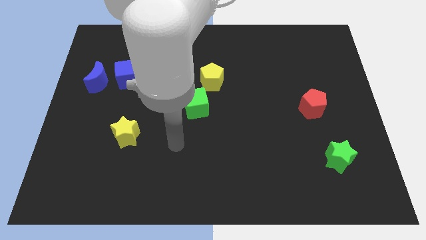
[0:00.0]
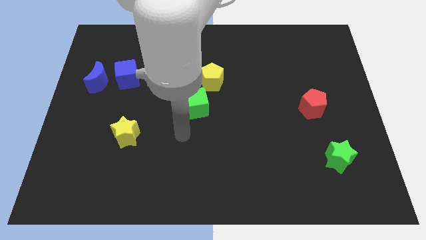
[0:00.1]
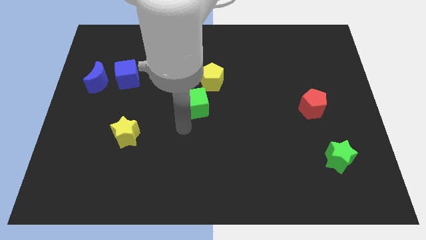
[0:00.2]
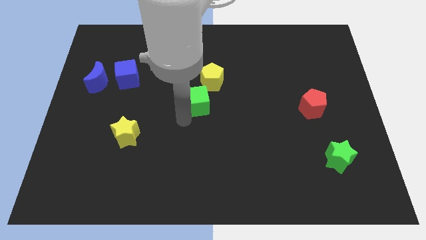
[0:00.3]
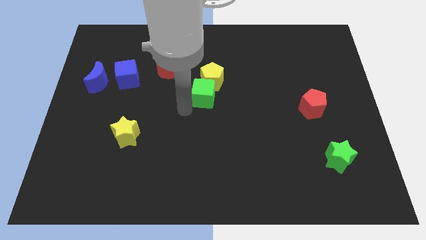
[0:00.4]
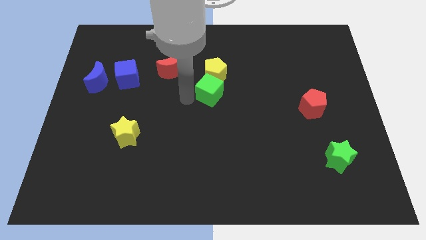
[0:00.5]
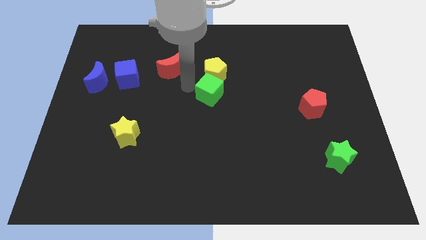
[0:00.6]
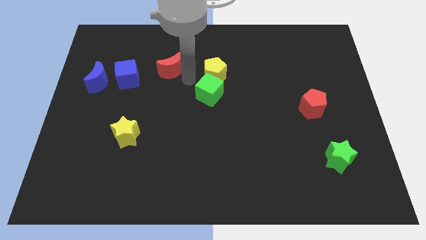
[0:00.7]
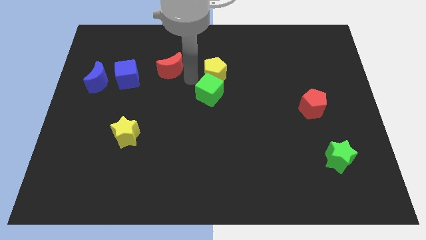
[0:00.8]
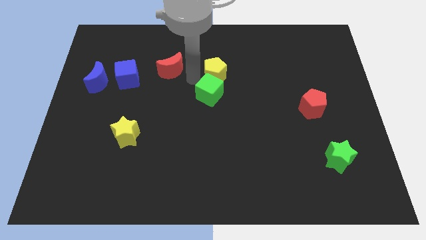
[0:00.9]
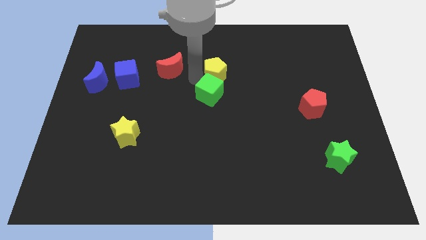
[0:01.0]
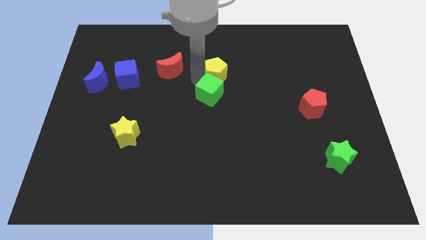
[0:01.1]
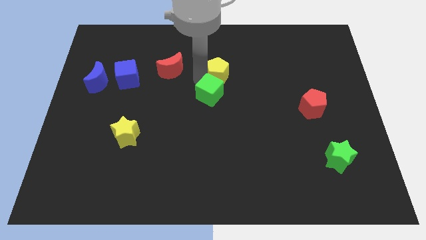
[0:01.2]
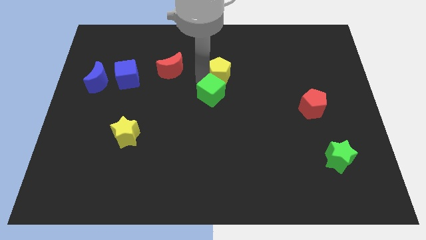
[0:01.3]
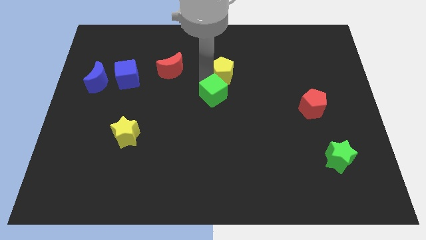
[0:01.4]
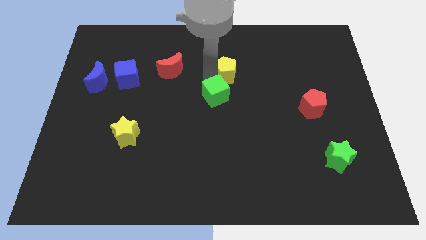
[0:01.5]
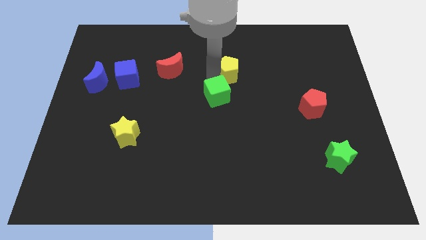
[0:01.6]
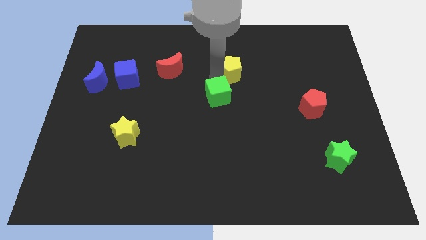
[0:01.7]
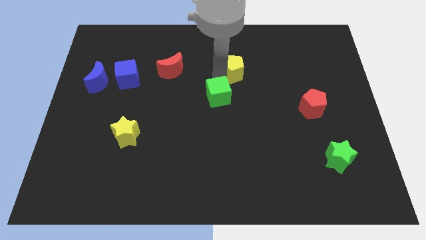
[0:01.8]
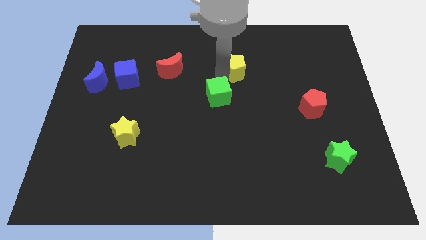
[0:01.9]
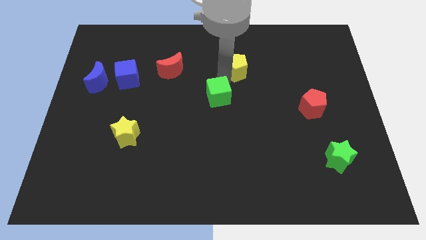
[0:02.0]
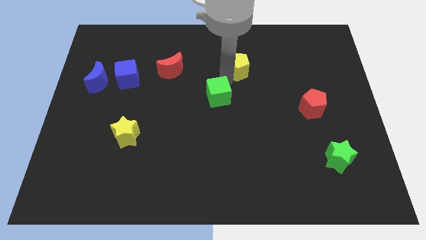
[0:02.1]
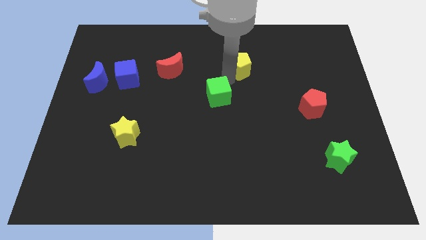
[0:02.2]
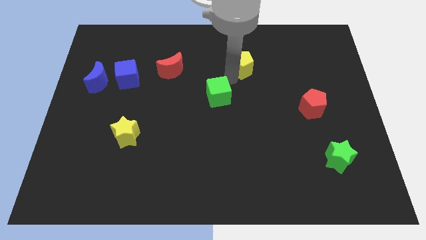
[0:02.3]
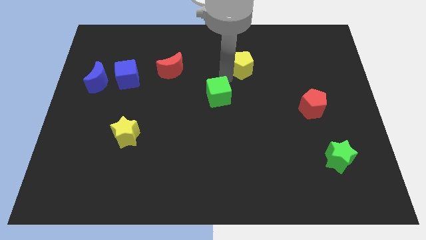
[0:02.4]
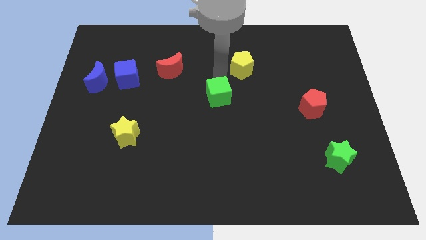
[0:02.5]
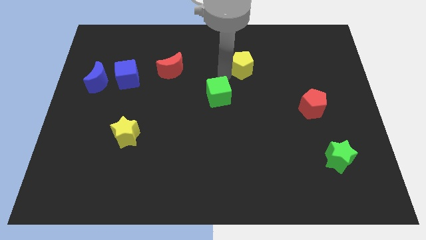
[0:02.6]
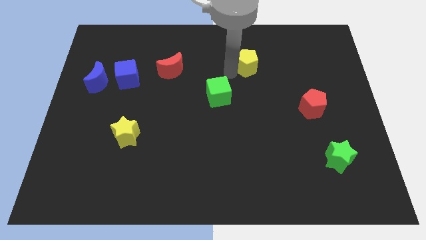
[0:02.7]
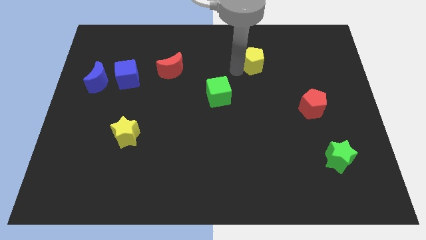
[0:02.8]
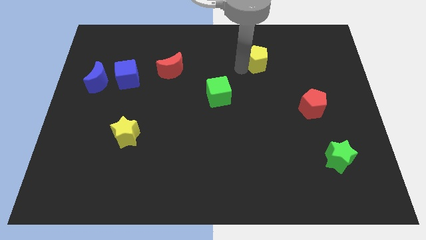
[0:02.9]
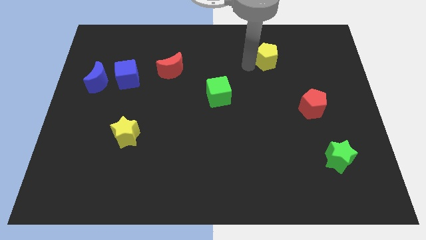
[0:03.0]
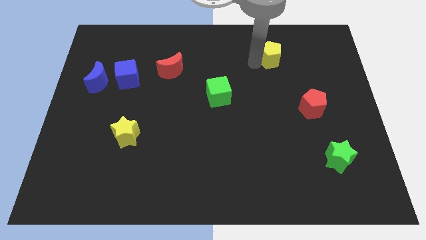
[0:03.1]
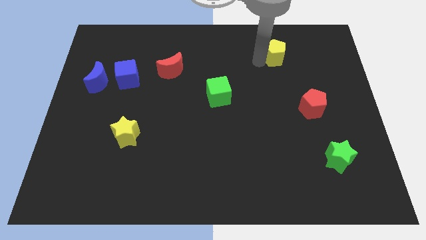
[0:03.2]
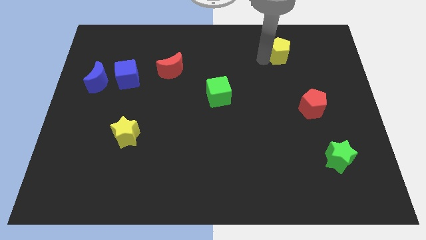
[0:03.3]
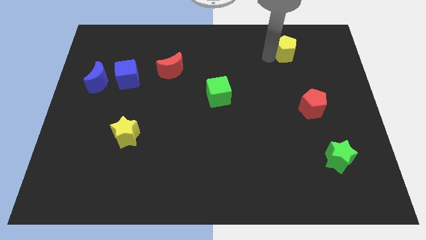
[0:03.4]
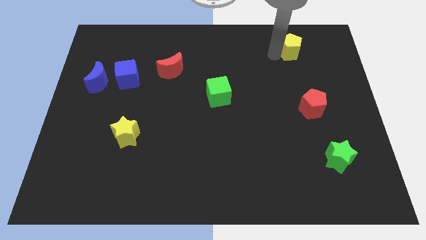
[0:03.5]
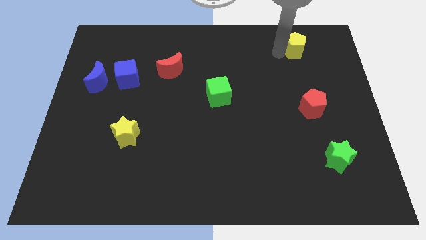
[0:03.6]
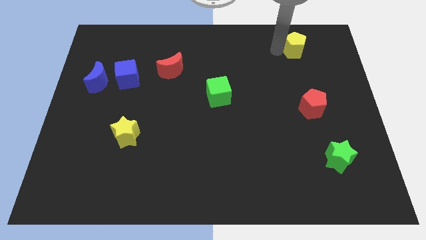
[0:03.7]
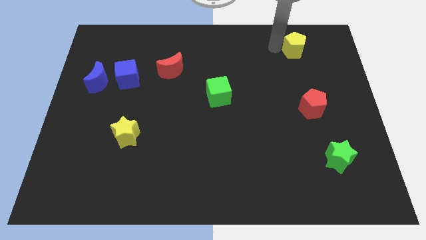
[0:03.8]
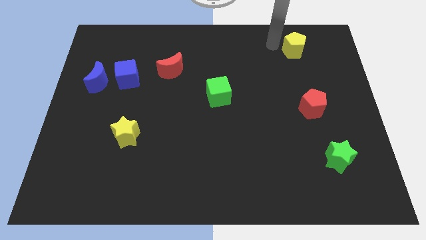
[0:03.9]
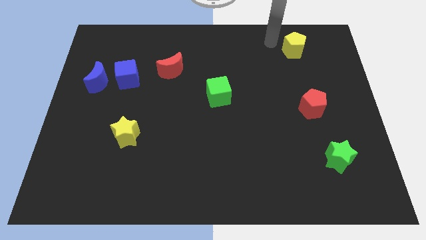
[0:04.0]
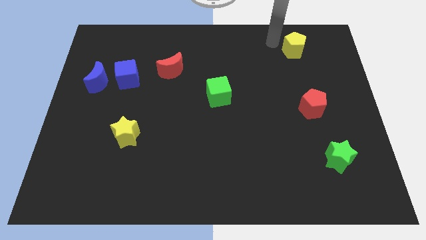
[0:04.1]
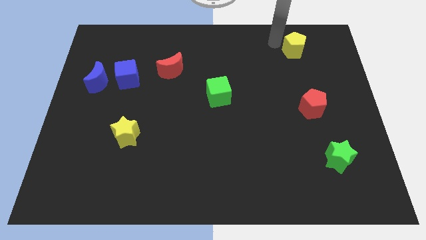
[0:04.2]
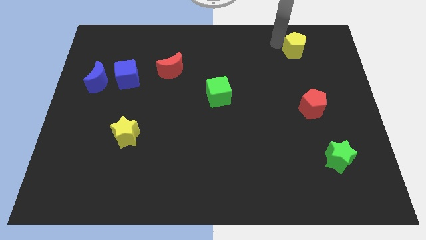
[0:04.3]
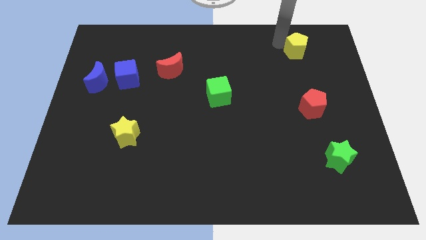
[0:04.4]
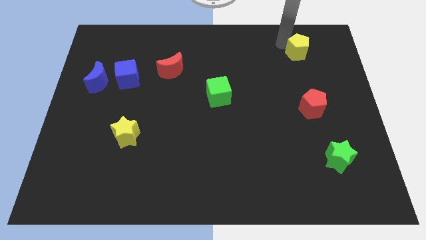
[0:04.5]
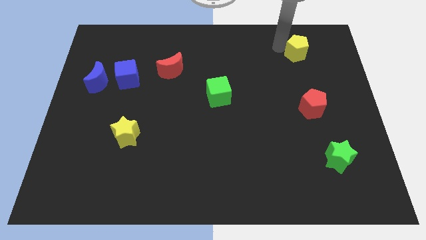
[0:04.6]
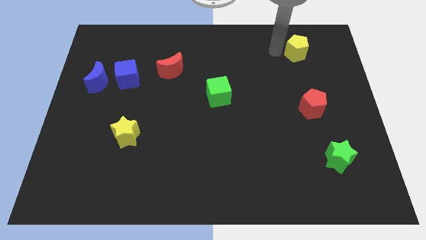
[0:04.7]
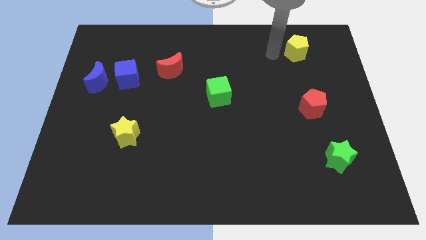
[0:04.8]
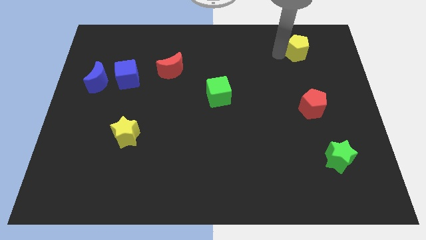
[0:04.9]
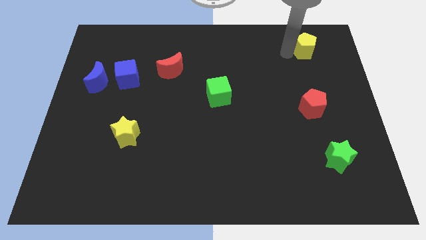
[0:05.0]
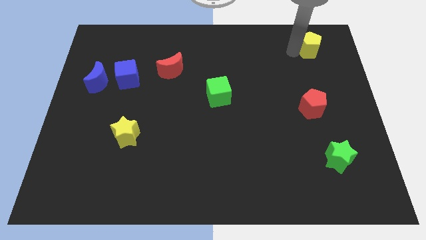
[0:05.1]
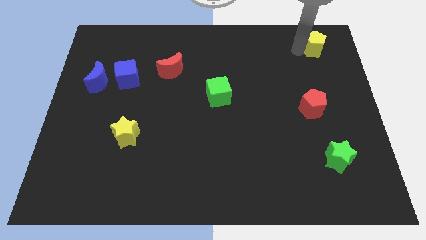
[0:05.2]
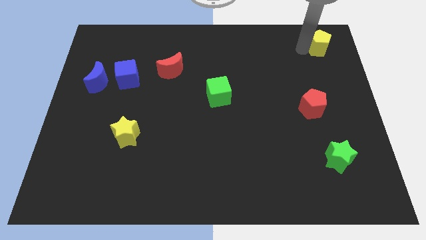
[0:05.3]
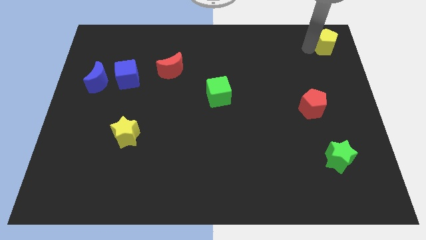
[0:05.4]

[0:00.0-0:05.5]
put the yellow pentagon to the top right corner

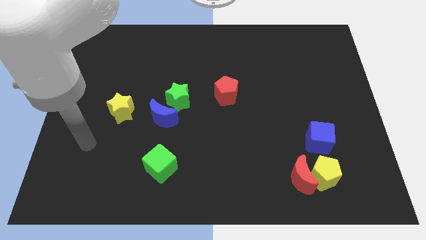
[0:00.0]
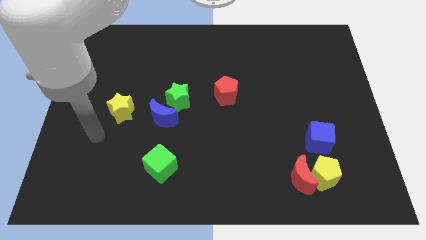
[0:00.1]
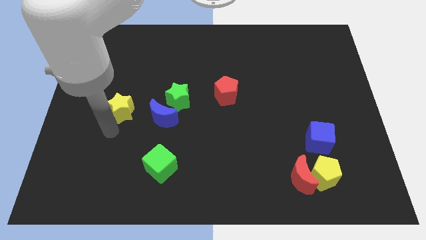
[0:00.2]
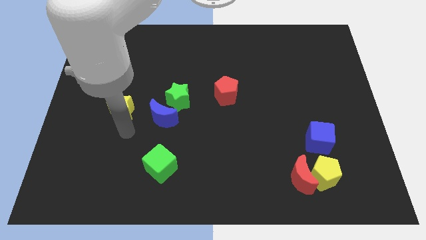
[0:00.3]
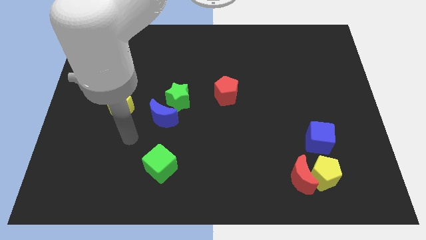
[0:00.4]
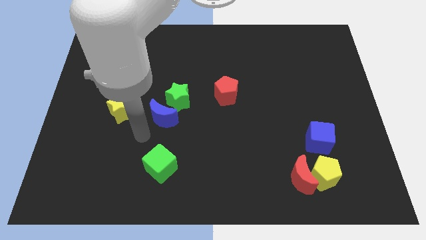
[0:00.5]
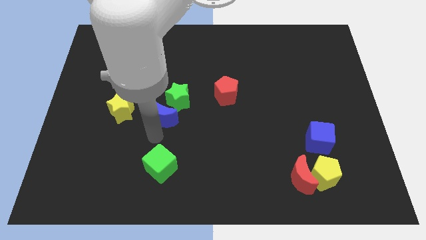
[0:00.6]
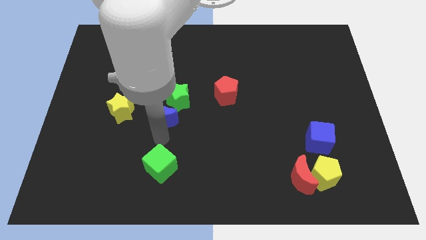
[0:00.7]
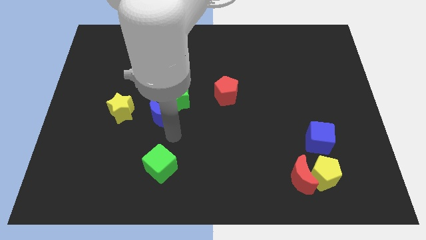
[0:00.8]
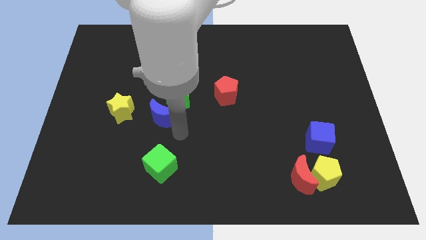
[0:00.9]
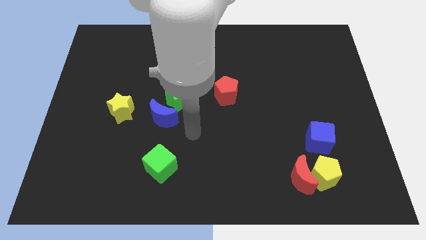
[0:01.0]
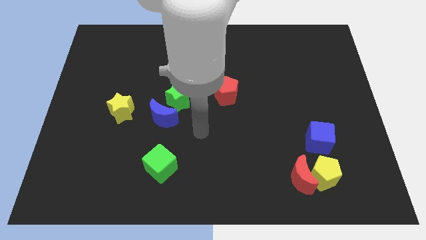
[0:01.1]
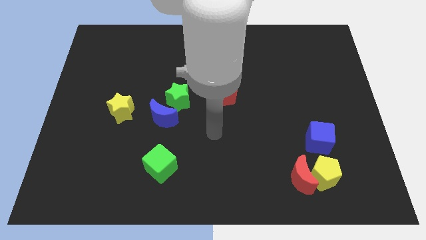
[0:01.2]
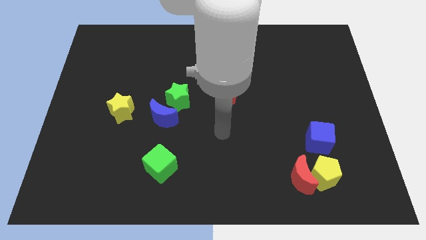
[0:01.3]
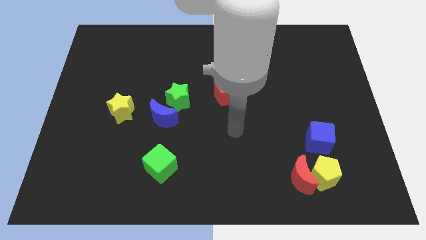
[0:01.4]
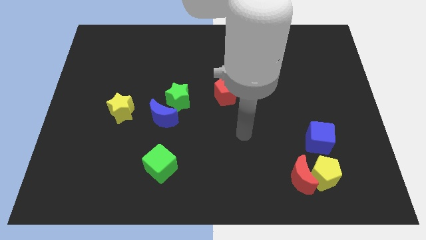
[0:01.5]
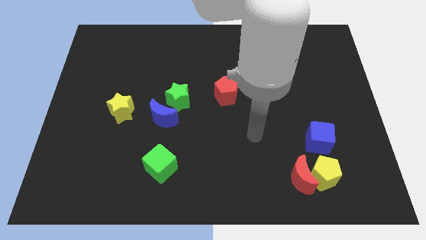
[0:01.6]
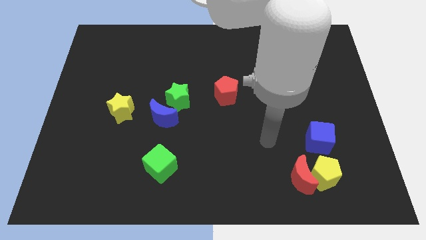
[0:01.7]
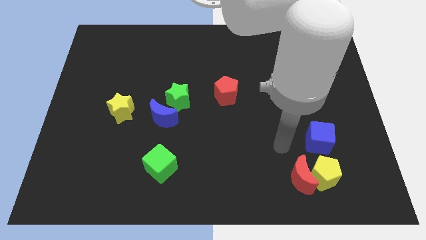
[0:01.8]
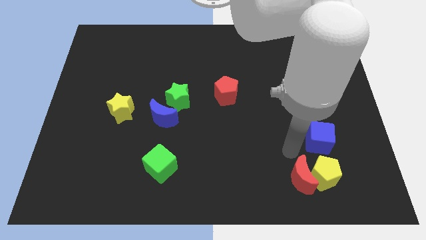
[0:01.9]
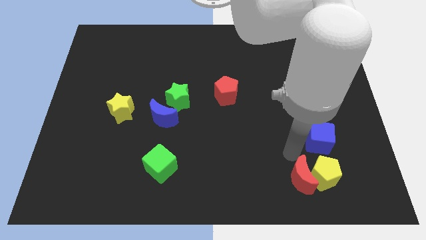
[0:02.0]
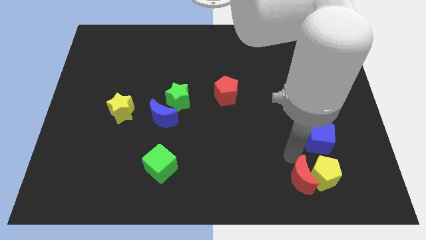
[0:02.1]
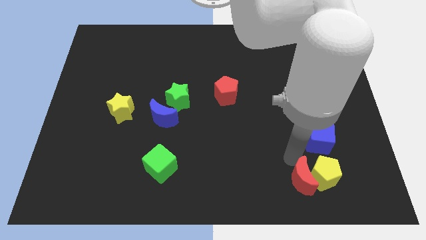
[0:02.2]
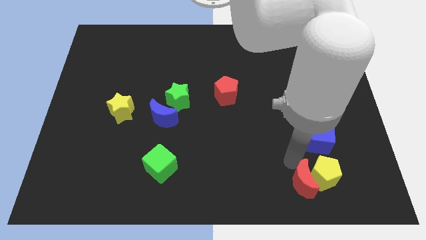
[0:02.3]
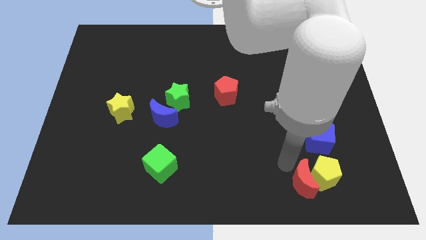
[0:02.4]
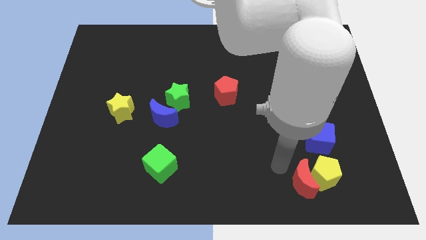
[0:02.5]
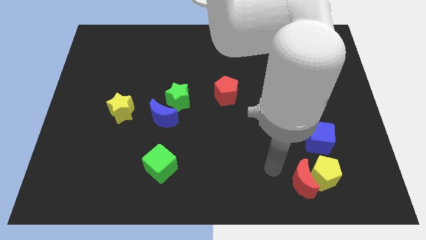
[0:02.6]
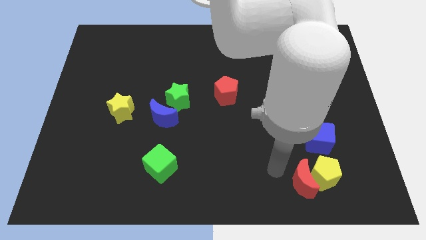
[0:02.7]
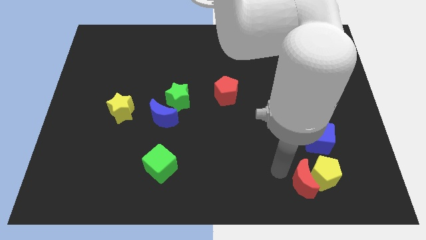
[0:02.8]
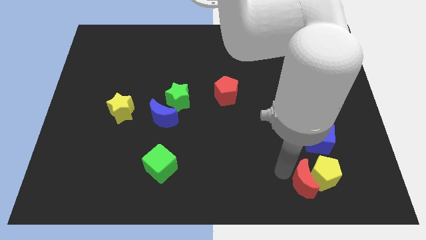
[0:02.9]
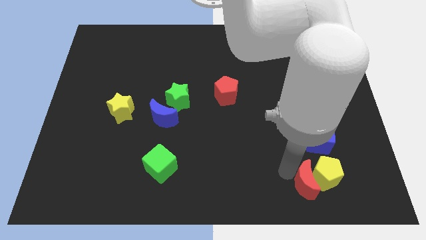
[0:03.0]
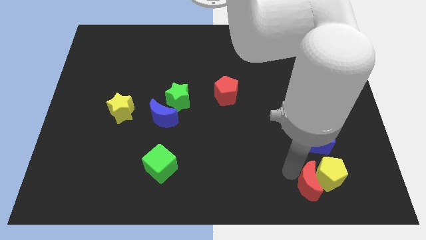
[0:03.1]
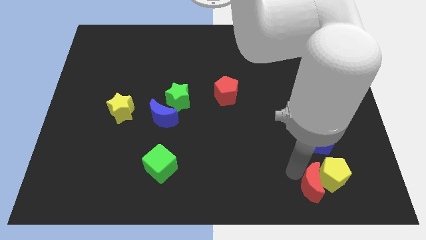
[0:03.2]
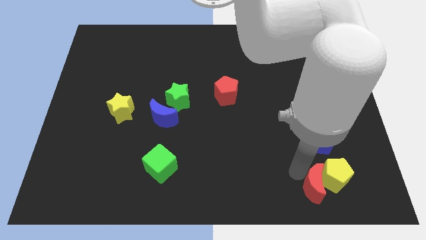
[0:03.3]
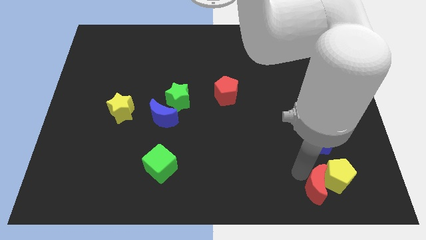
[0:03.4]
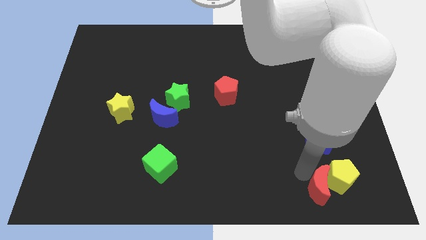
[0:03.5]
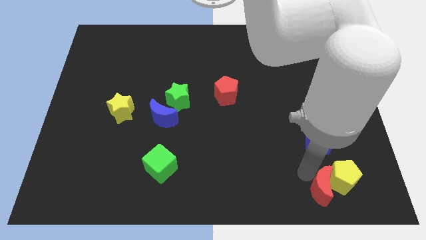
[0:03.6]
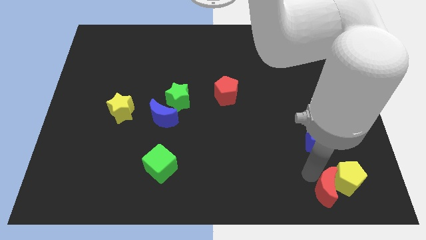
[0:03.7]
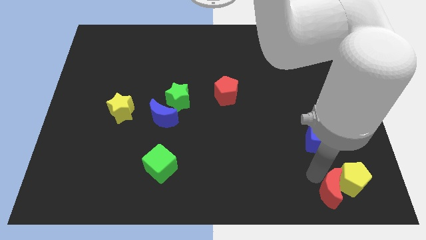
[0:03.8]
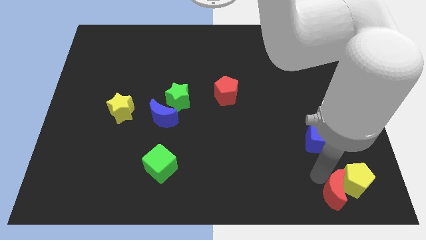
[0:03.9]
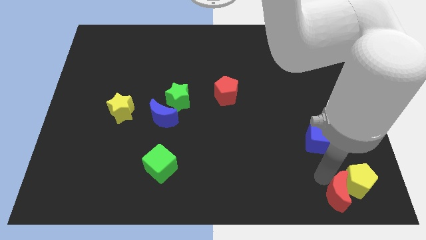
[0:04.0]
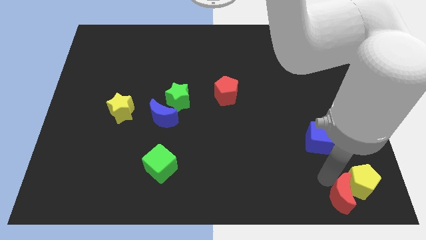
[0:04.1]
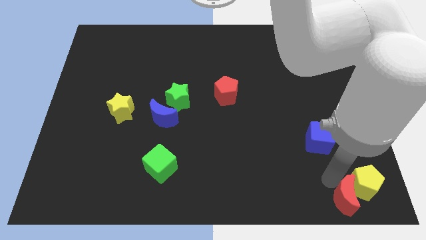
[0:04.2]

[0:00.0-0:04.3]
push the red moon to the bottom right
